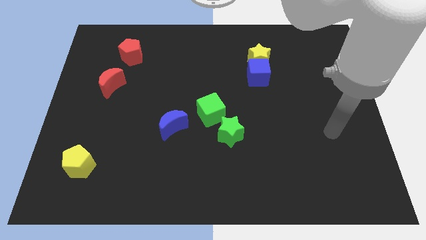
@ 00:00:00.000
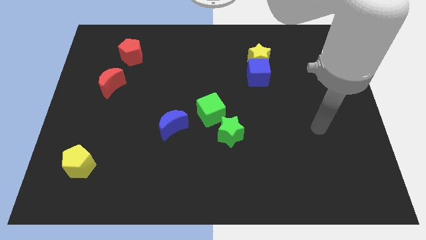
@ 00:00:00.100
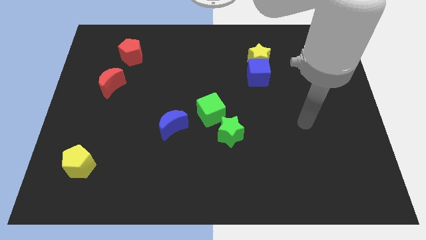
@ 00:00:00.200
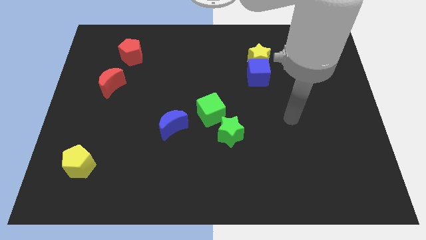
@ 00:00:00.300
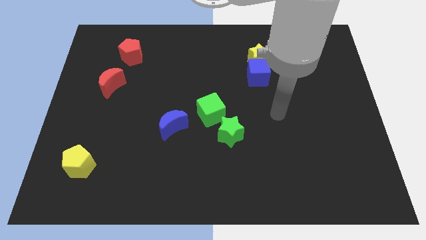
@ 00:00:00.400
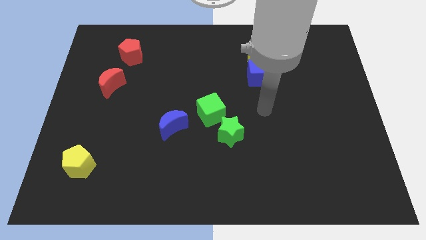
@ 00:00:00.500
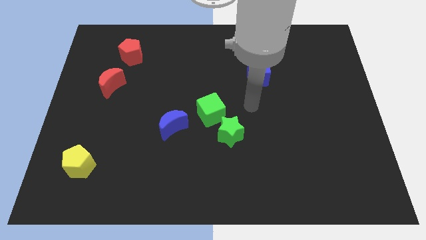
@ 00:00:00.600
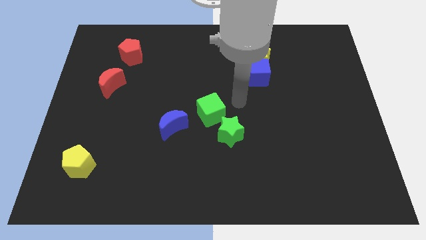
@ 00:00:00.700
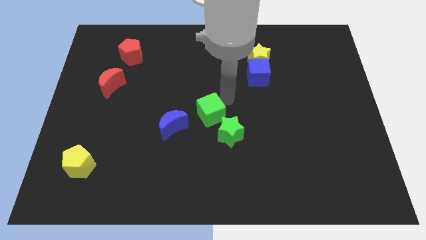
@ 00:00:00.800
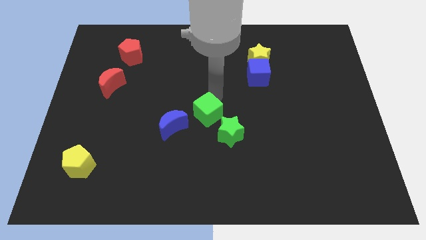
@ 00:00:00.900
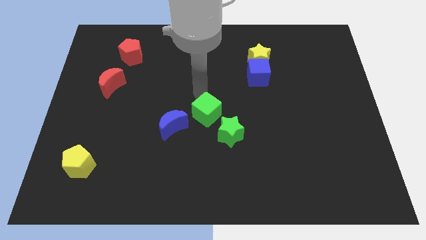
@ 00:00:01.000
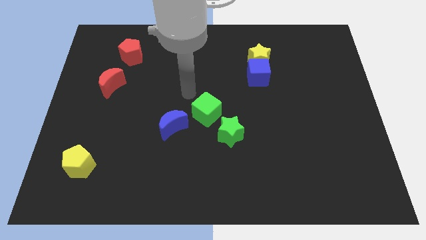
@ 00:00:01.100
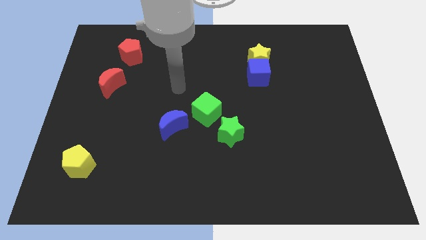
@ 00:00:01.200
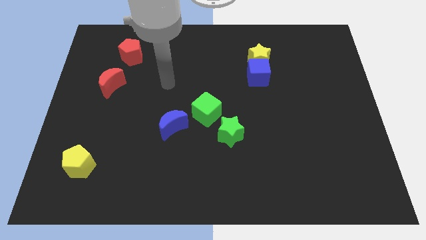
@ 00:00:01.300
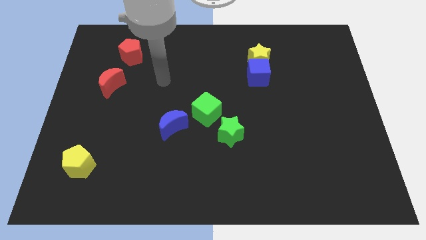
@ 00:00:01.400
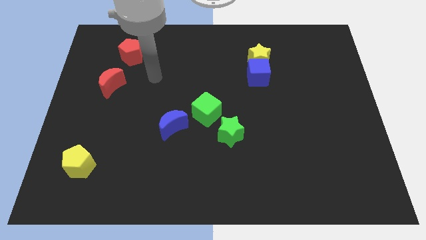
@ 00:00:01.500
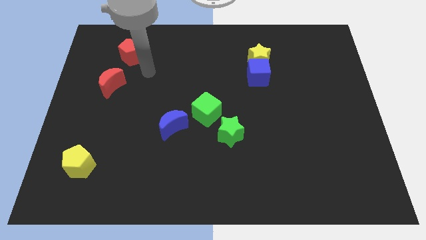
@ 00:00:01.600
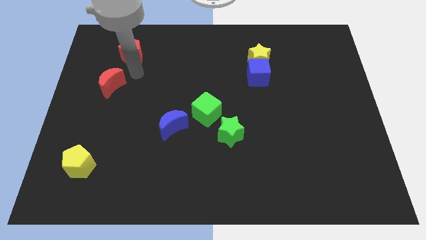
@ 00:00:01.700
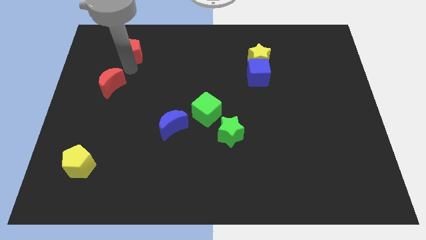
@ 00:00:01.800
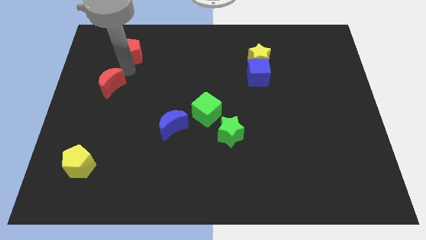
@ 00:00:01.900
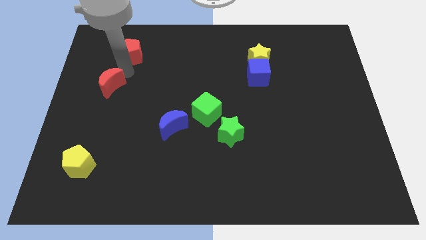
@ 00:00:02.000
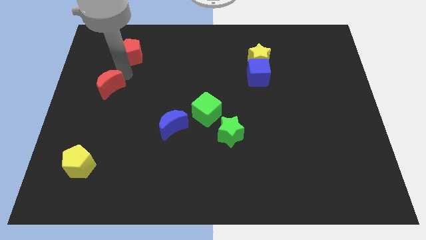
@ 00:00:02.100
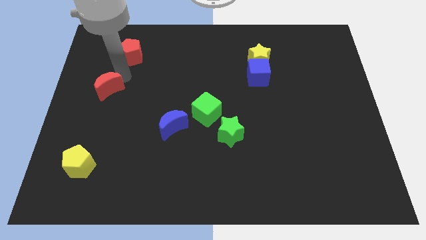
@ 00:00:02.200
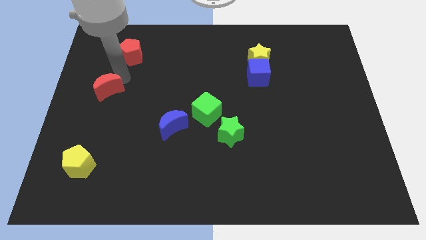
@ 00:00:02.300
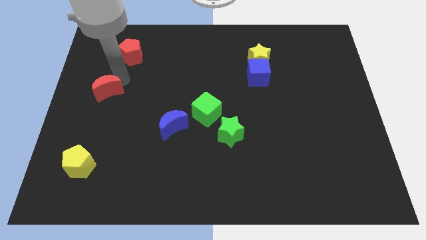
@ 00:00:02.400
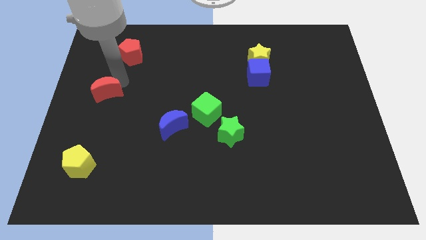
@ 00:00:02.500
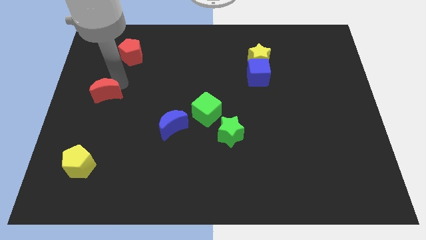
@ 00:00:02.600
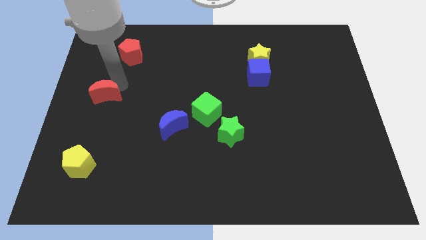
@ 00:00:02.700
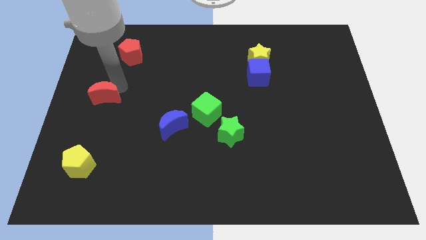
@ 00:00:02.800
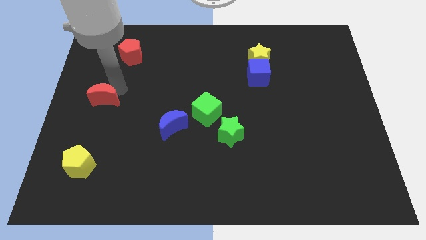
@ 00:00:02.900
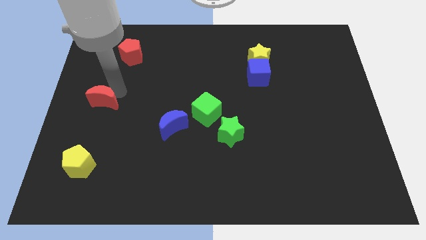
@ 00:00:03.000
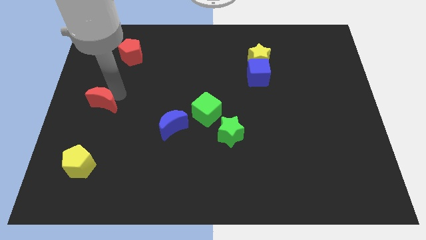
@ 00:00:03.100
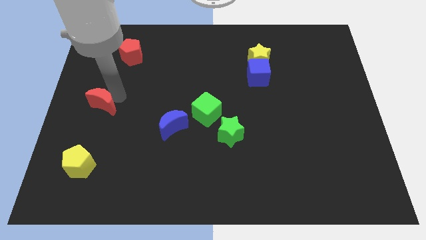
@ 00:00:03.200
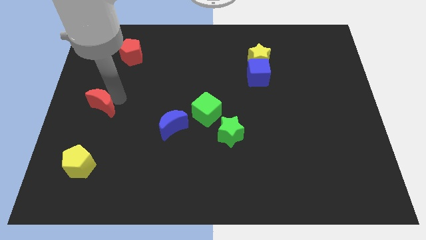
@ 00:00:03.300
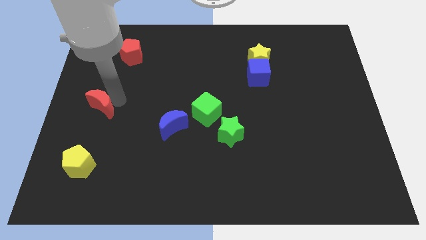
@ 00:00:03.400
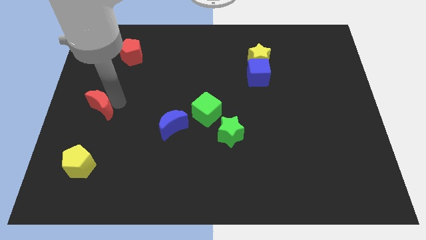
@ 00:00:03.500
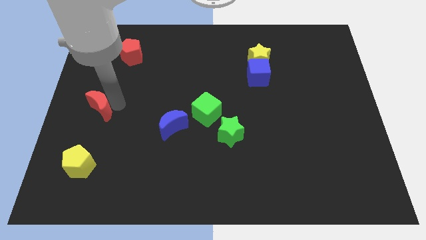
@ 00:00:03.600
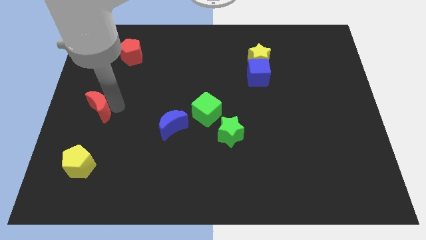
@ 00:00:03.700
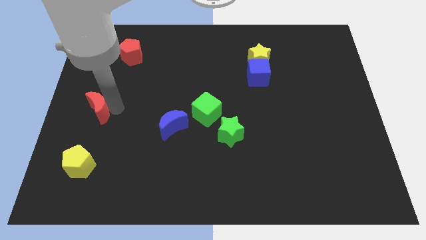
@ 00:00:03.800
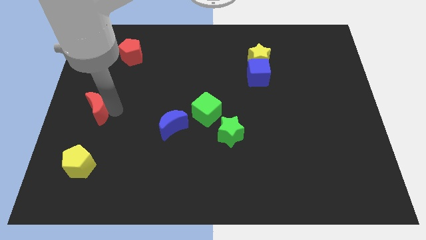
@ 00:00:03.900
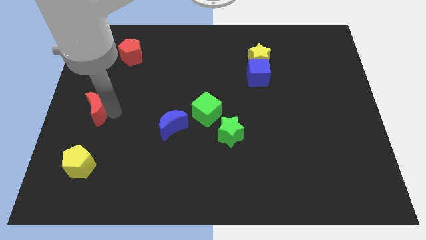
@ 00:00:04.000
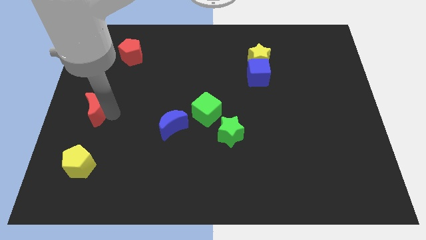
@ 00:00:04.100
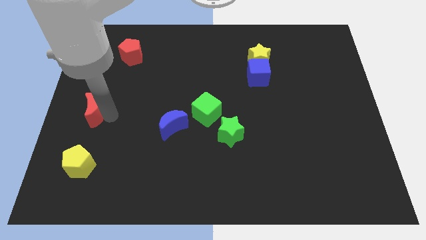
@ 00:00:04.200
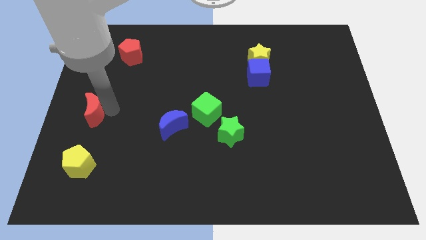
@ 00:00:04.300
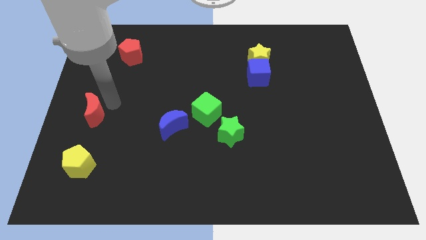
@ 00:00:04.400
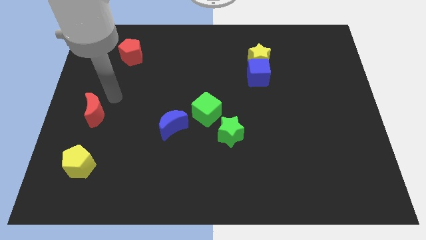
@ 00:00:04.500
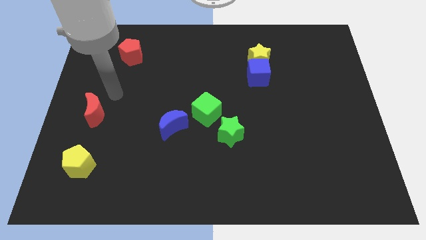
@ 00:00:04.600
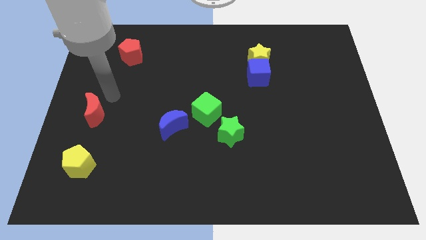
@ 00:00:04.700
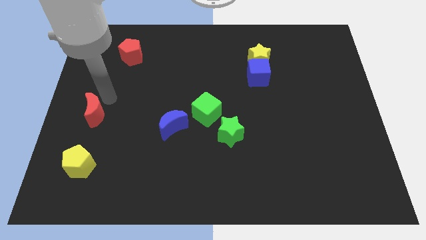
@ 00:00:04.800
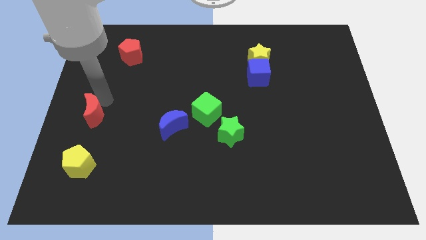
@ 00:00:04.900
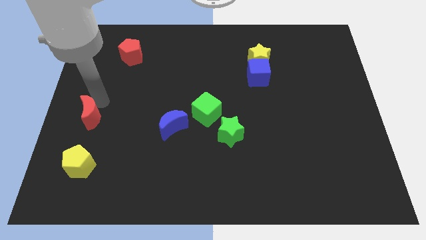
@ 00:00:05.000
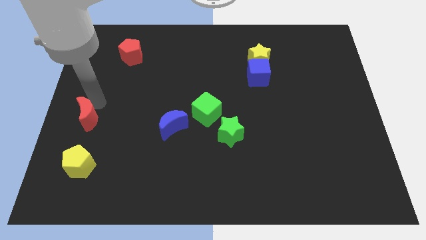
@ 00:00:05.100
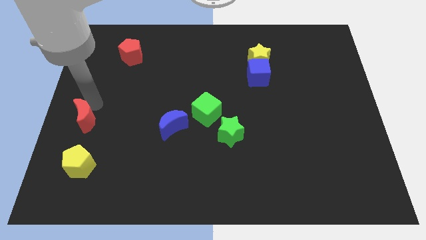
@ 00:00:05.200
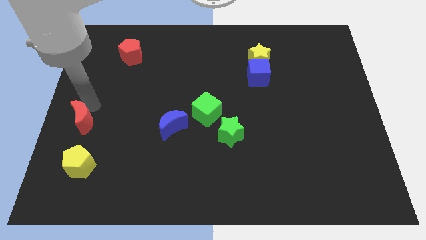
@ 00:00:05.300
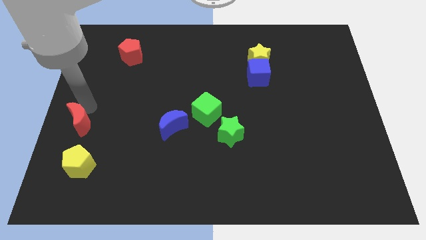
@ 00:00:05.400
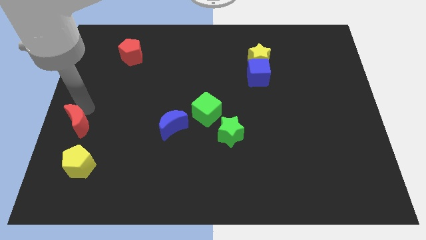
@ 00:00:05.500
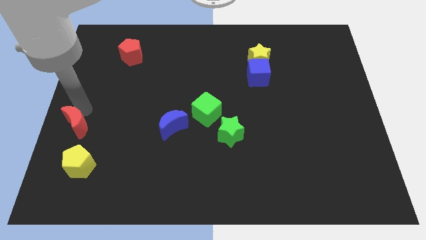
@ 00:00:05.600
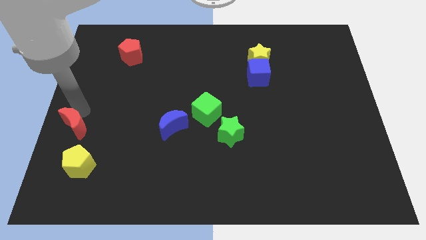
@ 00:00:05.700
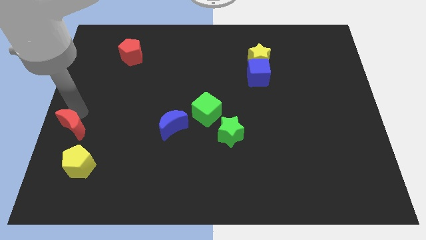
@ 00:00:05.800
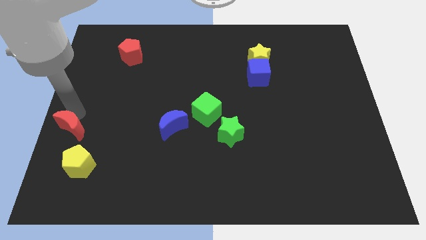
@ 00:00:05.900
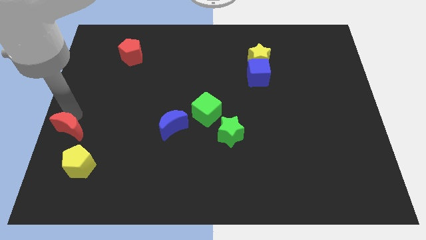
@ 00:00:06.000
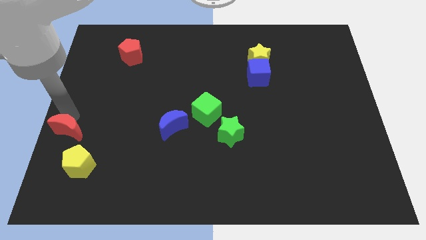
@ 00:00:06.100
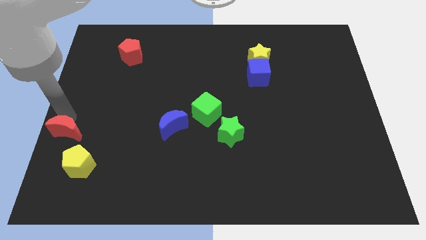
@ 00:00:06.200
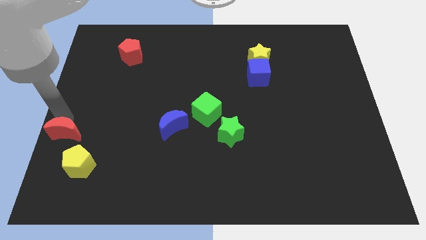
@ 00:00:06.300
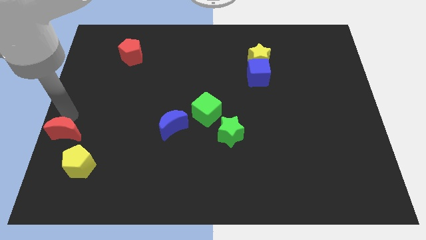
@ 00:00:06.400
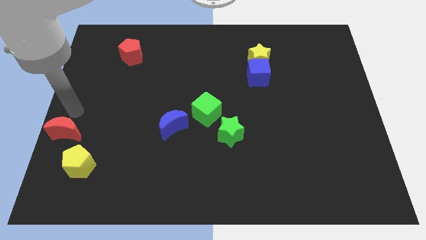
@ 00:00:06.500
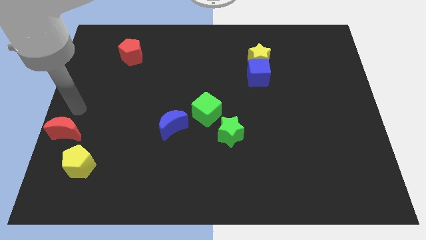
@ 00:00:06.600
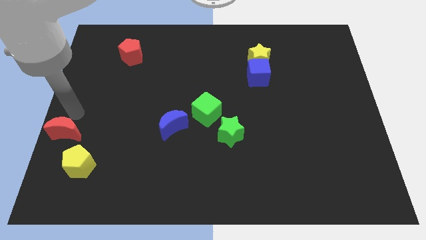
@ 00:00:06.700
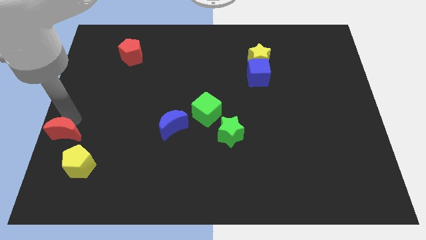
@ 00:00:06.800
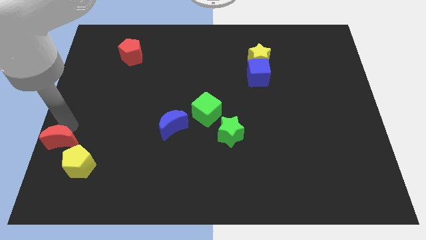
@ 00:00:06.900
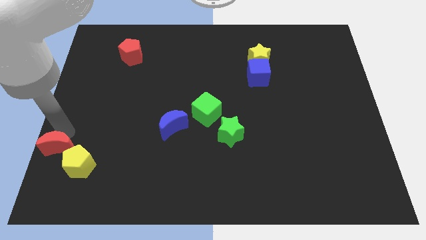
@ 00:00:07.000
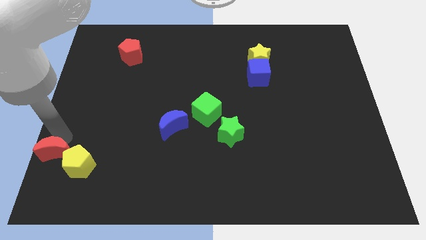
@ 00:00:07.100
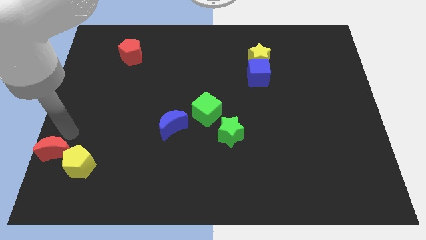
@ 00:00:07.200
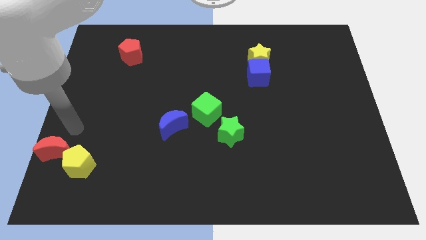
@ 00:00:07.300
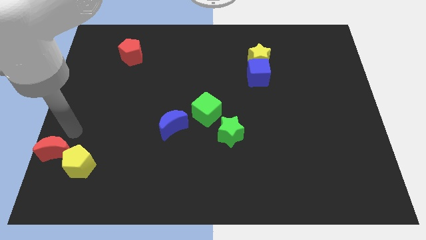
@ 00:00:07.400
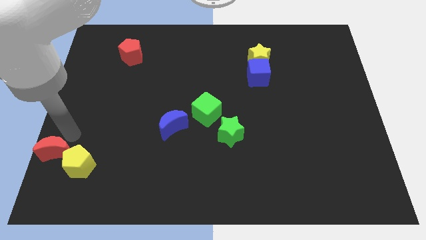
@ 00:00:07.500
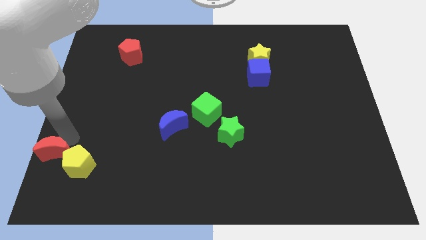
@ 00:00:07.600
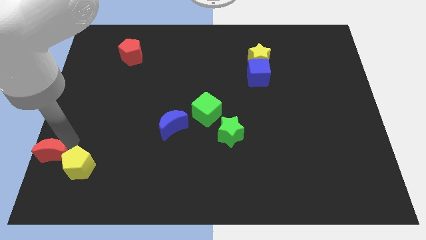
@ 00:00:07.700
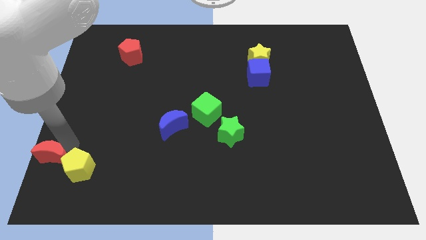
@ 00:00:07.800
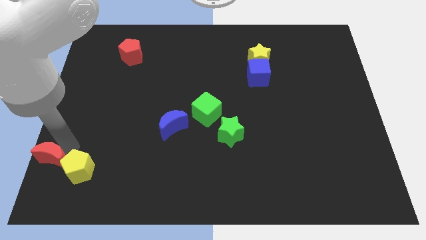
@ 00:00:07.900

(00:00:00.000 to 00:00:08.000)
put the red moon to the bottom left
